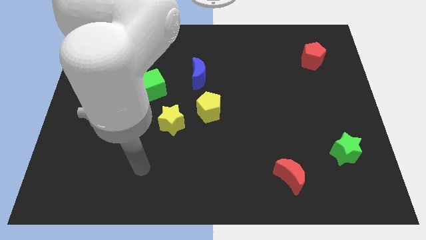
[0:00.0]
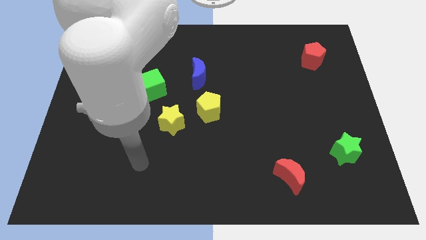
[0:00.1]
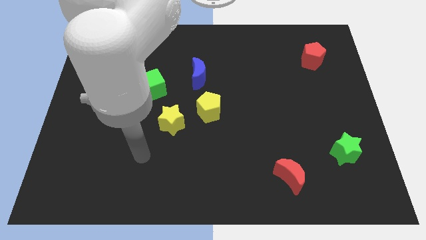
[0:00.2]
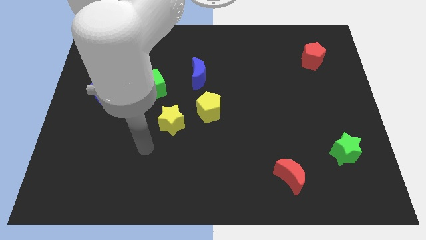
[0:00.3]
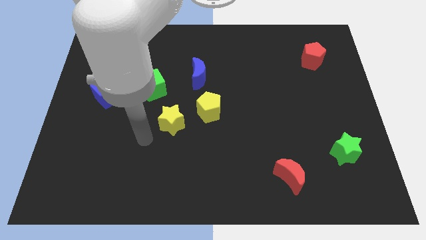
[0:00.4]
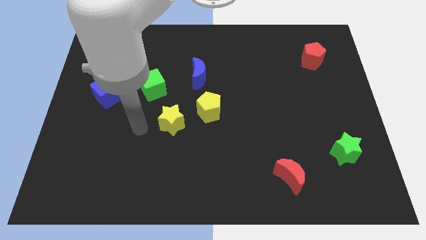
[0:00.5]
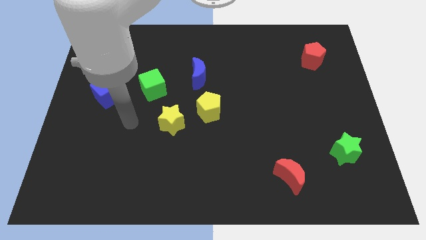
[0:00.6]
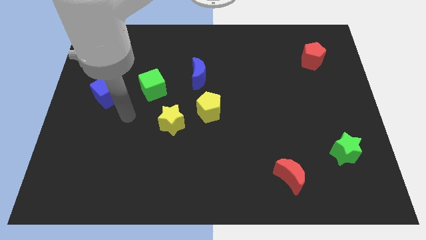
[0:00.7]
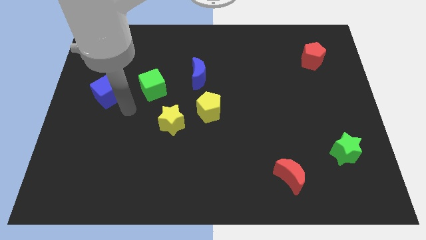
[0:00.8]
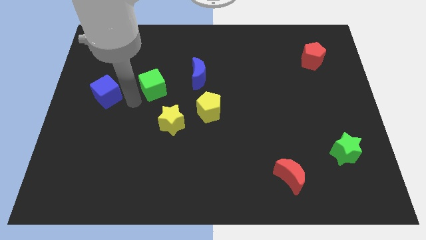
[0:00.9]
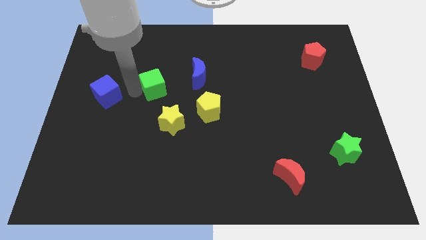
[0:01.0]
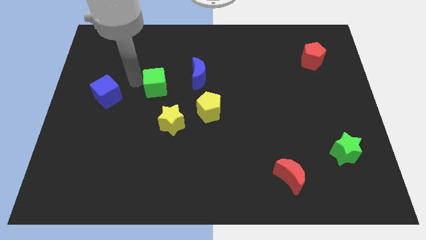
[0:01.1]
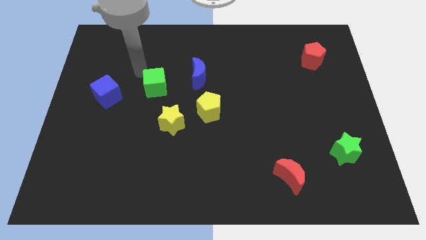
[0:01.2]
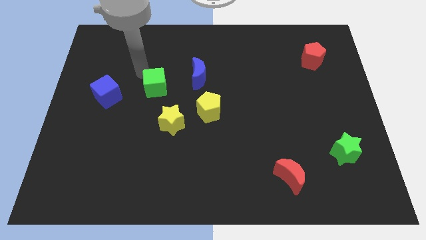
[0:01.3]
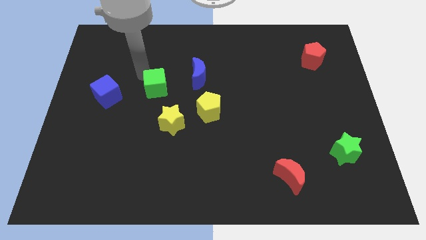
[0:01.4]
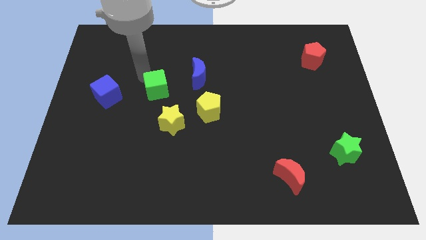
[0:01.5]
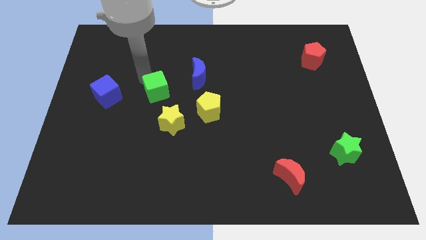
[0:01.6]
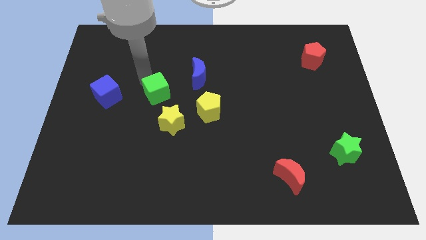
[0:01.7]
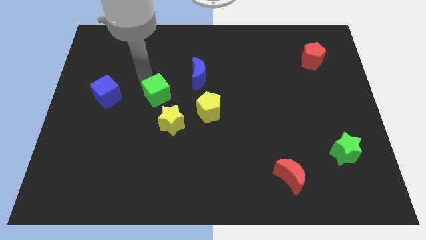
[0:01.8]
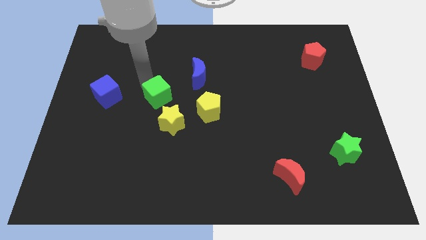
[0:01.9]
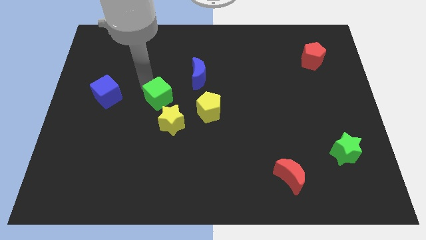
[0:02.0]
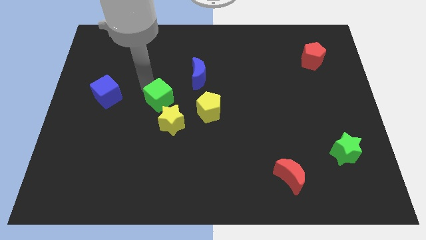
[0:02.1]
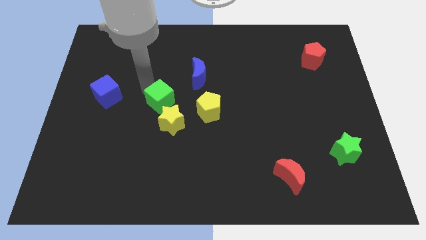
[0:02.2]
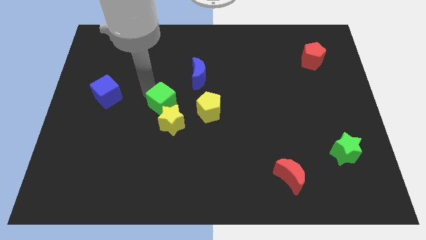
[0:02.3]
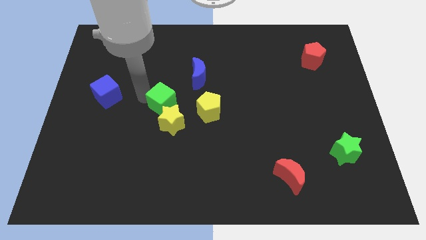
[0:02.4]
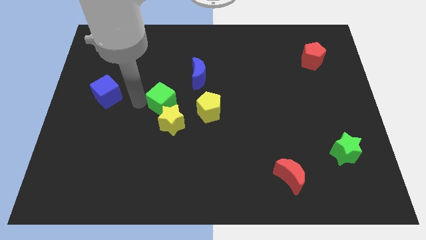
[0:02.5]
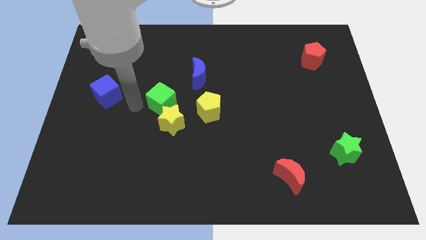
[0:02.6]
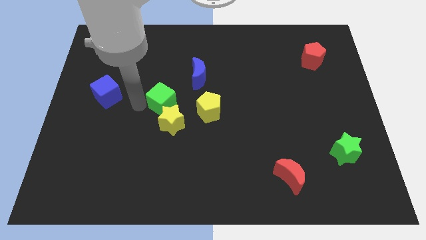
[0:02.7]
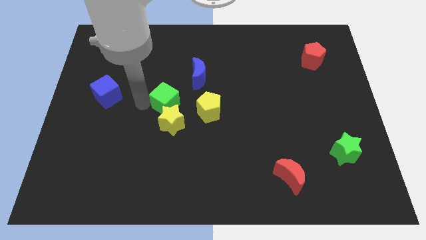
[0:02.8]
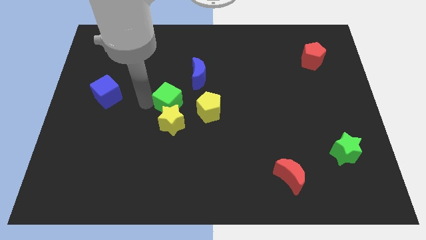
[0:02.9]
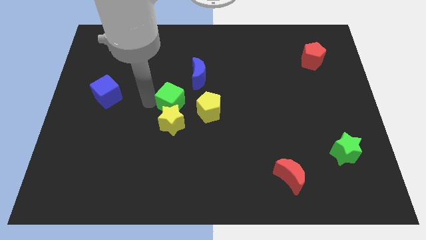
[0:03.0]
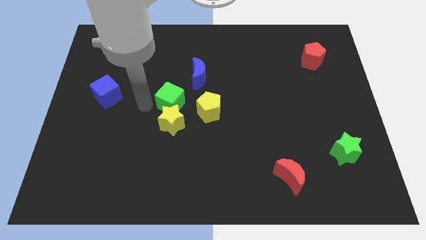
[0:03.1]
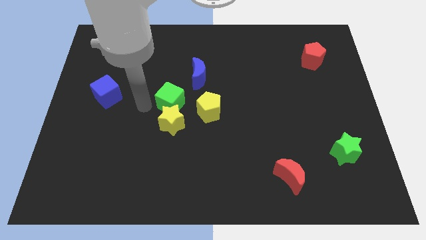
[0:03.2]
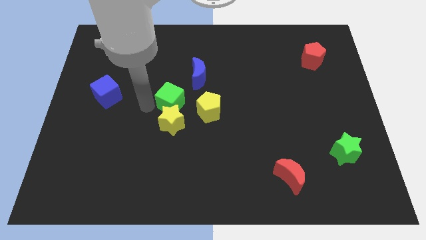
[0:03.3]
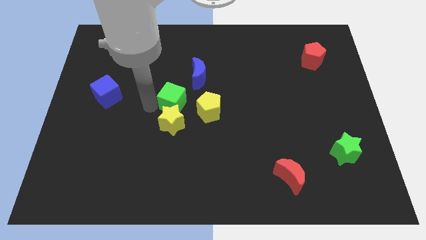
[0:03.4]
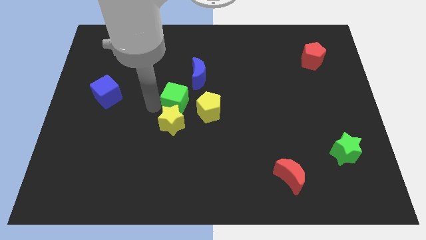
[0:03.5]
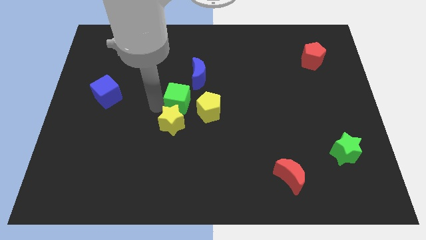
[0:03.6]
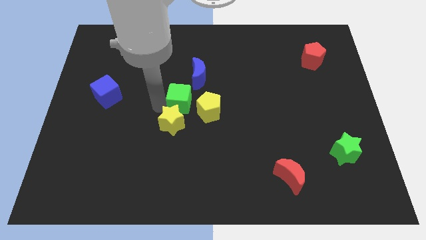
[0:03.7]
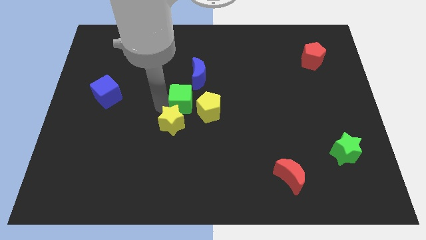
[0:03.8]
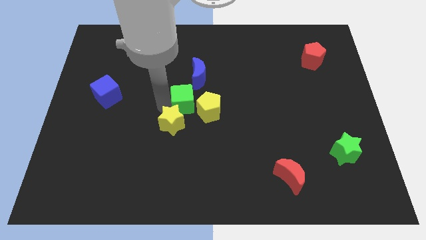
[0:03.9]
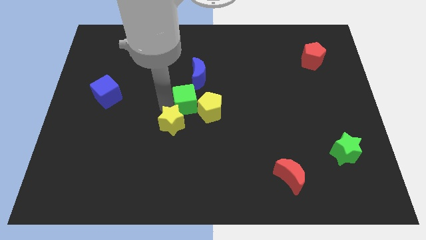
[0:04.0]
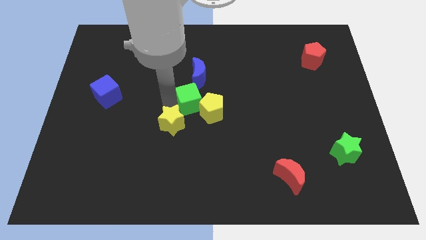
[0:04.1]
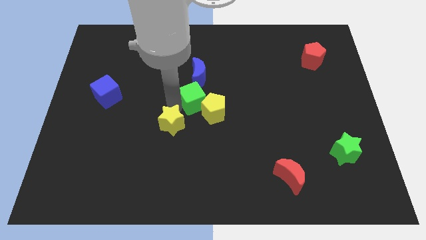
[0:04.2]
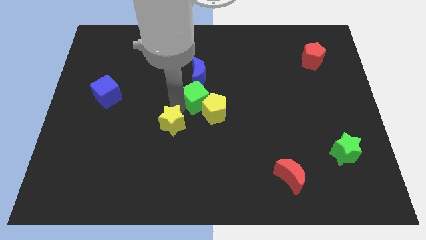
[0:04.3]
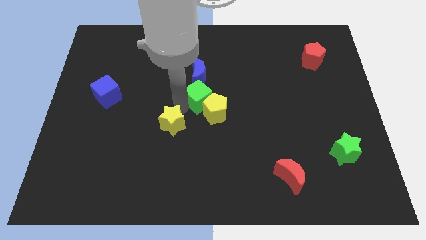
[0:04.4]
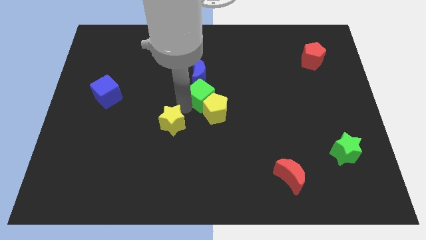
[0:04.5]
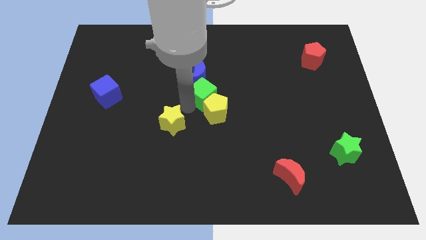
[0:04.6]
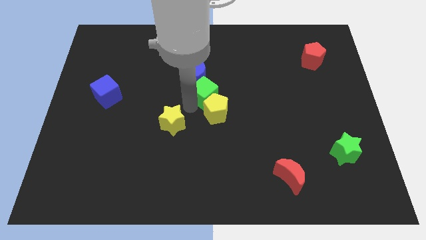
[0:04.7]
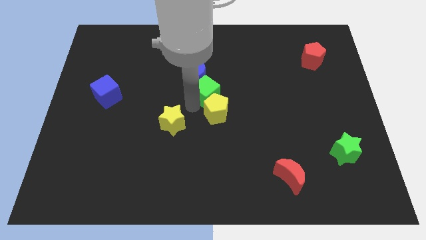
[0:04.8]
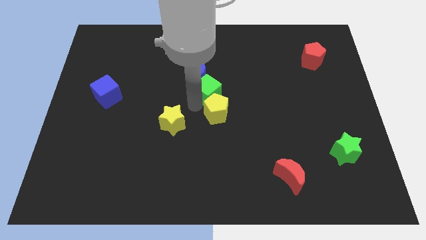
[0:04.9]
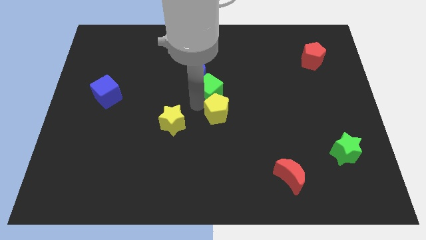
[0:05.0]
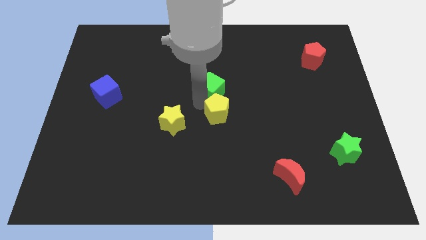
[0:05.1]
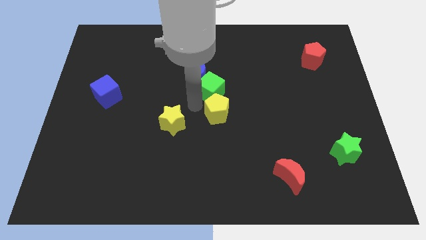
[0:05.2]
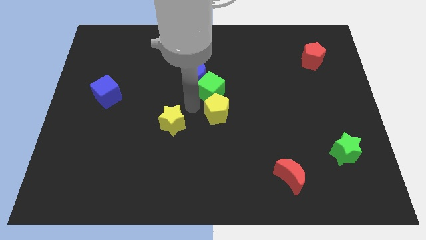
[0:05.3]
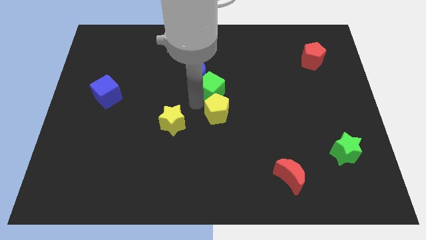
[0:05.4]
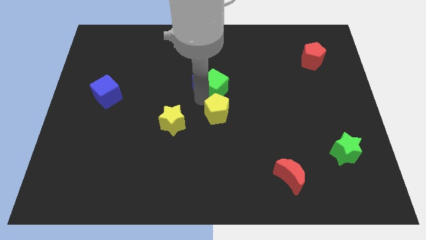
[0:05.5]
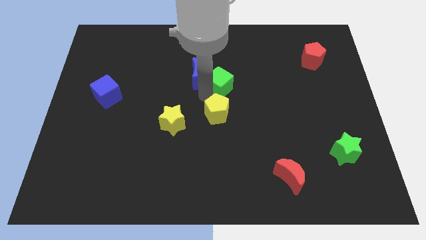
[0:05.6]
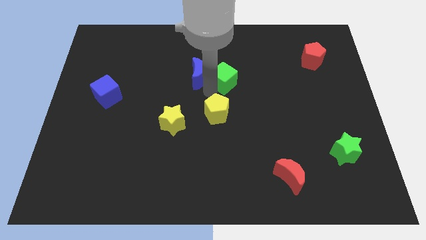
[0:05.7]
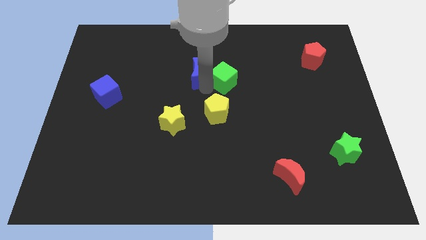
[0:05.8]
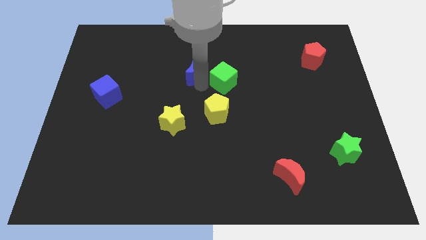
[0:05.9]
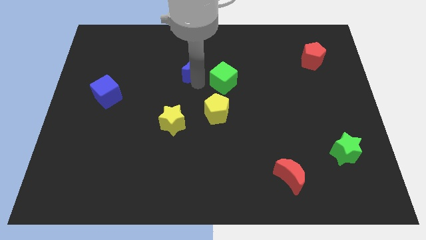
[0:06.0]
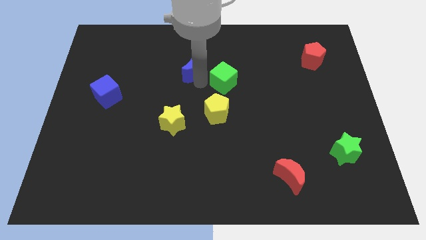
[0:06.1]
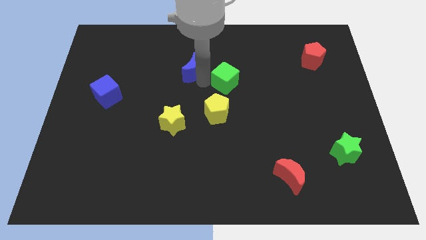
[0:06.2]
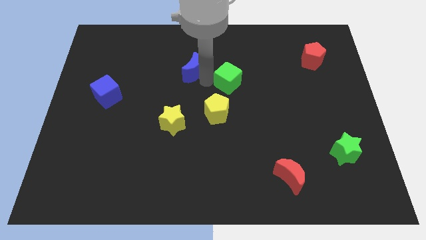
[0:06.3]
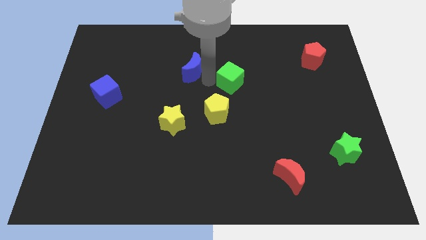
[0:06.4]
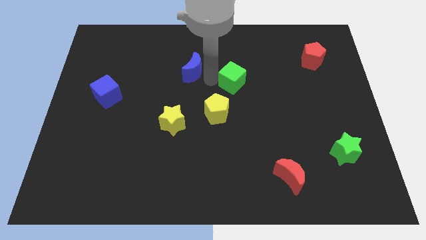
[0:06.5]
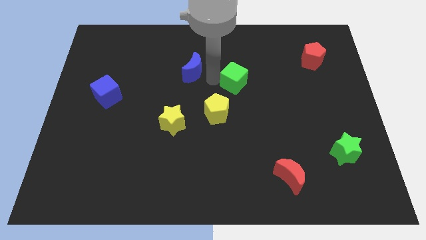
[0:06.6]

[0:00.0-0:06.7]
slide the green cube to the right

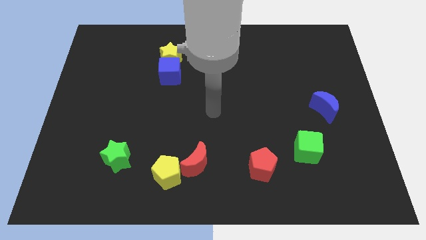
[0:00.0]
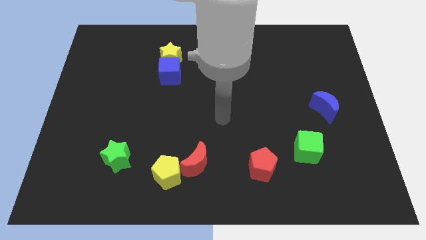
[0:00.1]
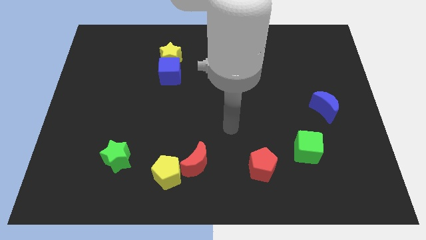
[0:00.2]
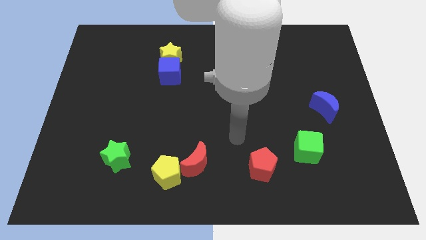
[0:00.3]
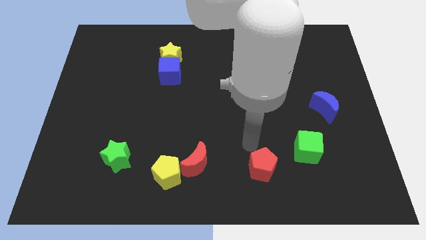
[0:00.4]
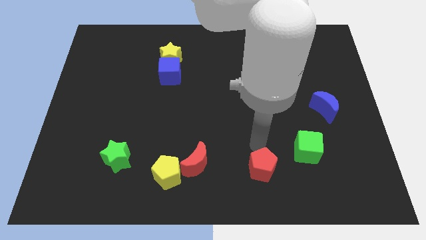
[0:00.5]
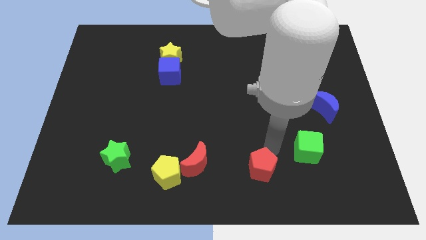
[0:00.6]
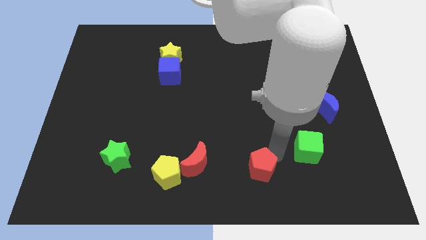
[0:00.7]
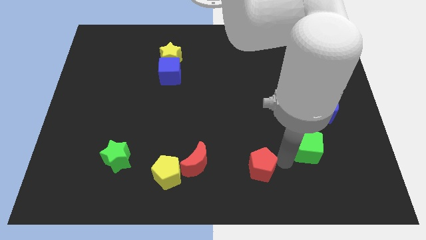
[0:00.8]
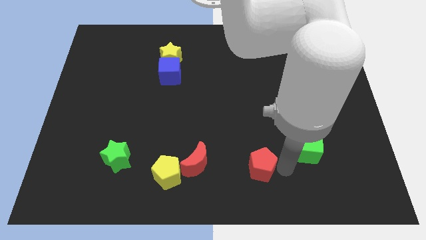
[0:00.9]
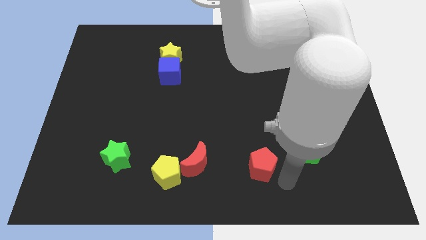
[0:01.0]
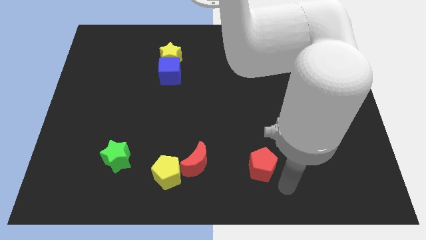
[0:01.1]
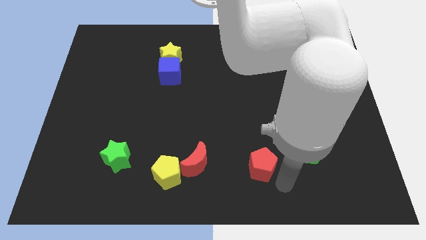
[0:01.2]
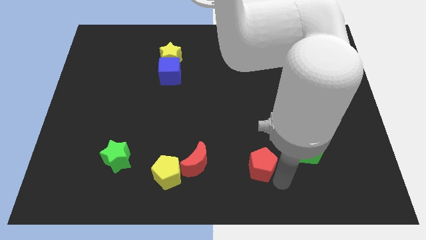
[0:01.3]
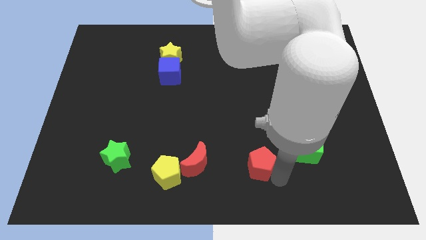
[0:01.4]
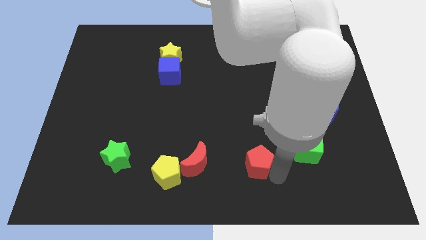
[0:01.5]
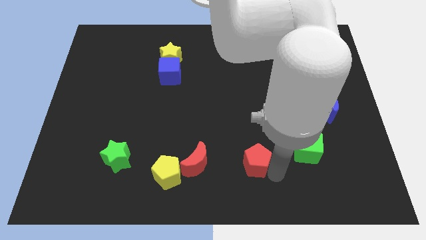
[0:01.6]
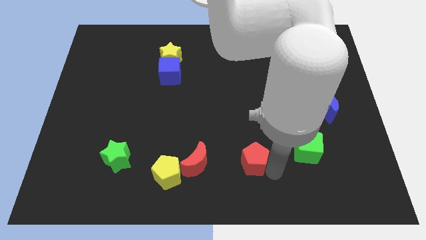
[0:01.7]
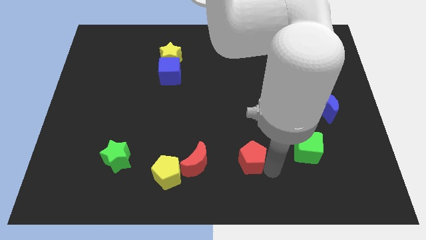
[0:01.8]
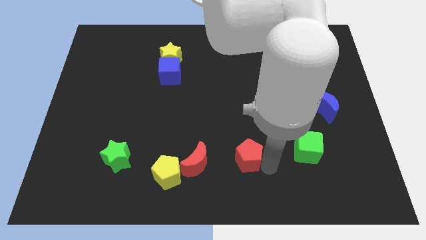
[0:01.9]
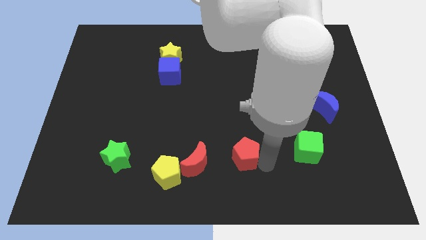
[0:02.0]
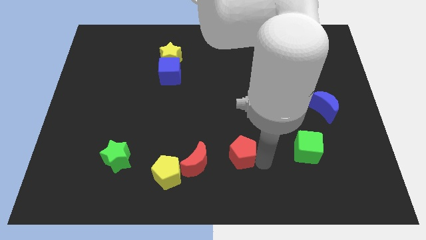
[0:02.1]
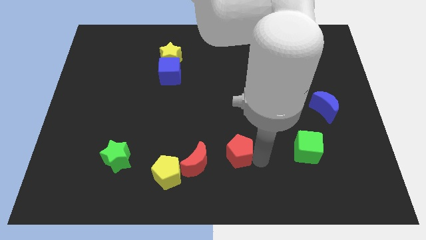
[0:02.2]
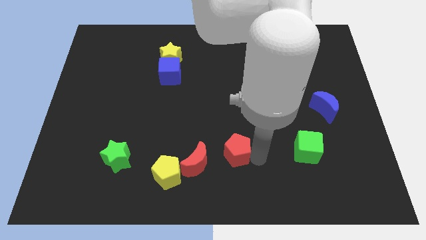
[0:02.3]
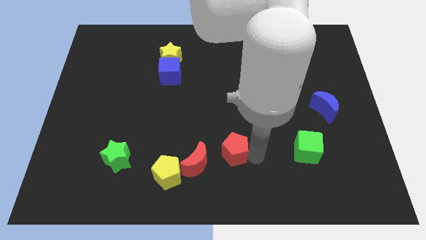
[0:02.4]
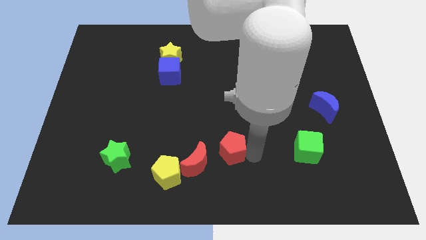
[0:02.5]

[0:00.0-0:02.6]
slightly push the red pentagon diagonally upwards and left
